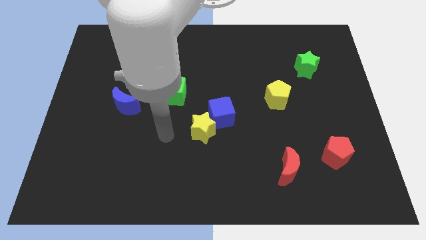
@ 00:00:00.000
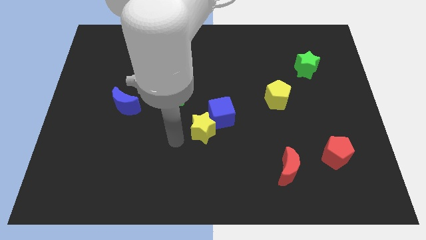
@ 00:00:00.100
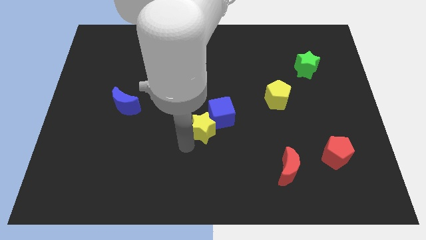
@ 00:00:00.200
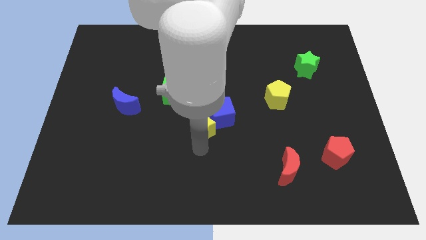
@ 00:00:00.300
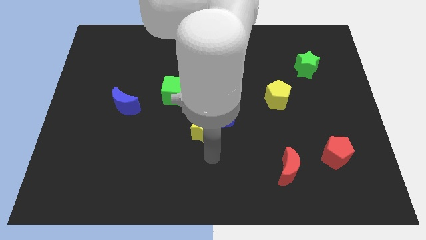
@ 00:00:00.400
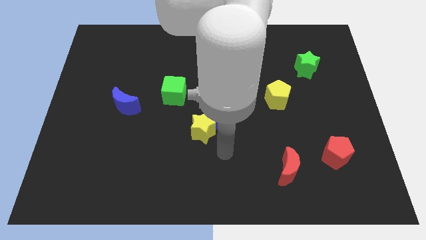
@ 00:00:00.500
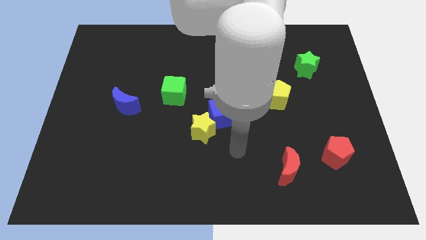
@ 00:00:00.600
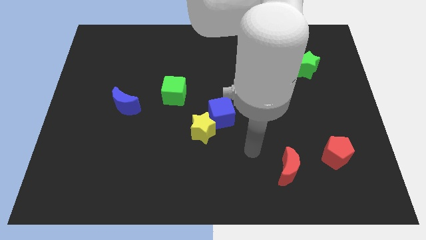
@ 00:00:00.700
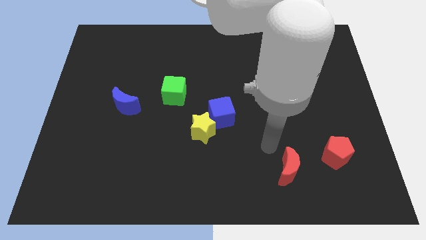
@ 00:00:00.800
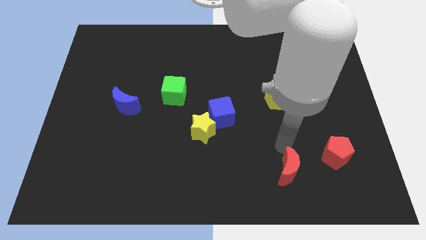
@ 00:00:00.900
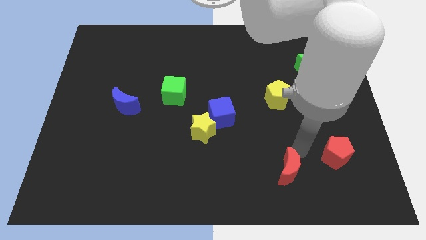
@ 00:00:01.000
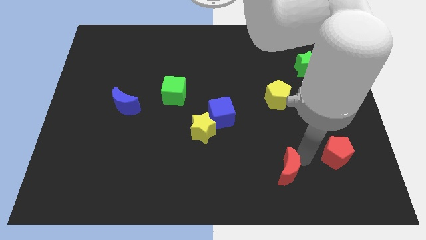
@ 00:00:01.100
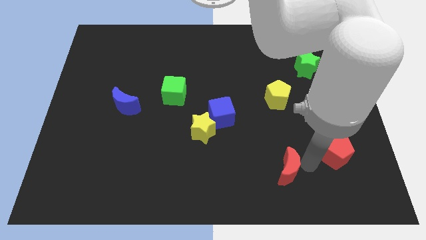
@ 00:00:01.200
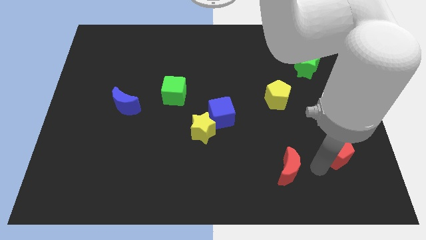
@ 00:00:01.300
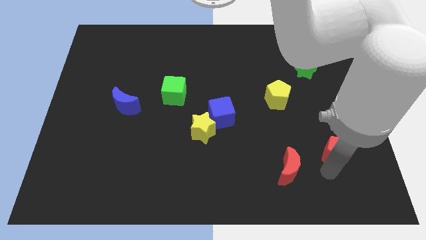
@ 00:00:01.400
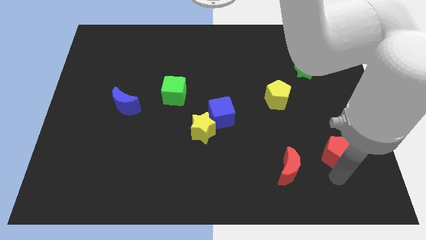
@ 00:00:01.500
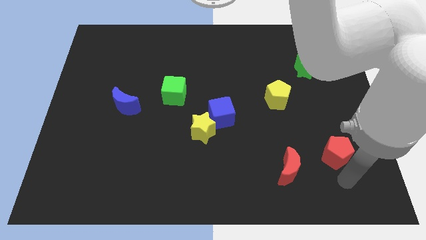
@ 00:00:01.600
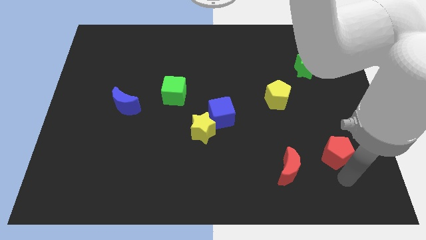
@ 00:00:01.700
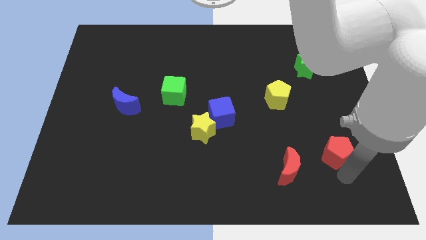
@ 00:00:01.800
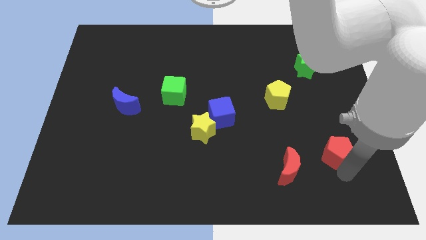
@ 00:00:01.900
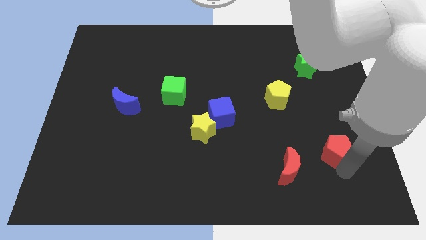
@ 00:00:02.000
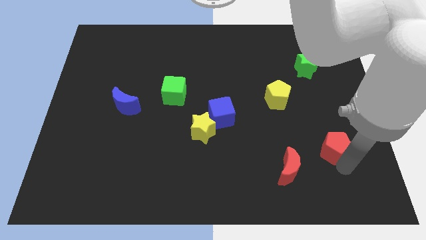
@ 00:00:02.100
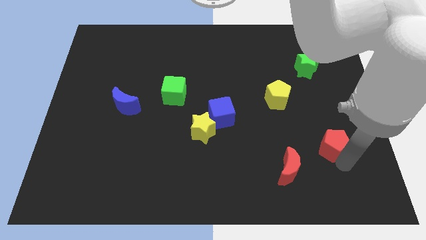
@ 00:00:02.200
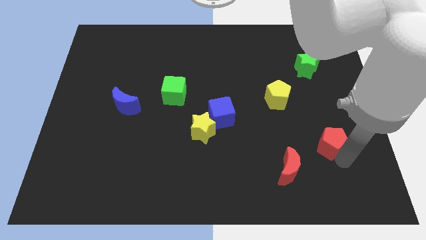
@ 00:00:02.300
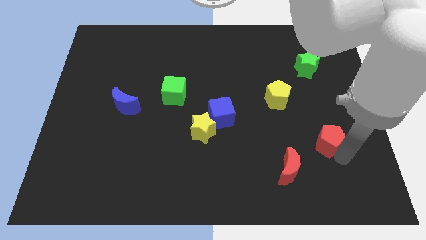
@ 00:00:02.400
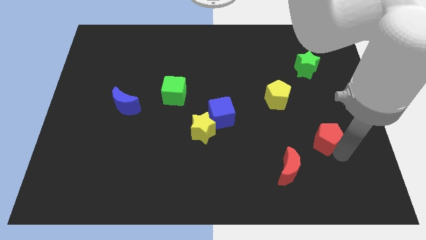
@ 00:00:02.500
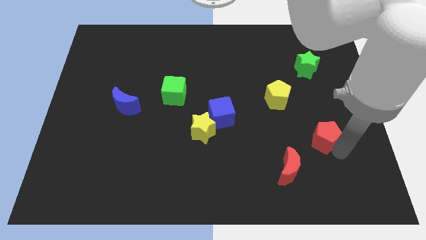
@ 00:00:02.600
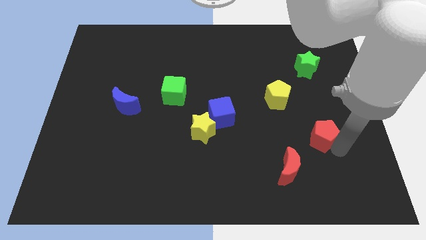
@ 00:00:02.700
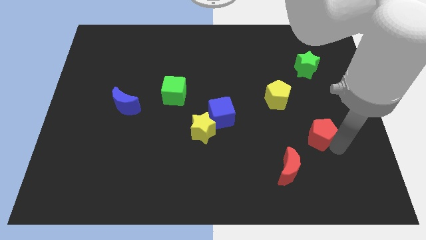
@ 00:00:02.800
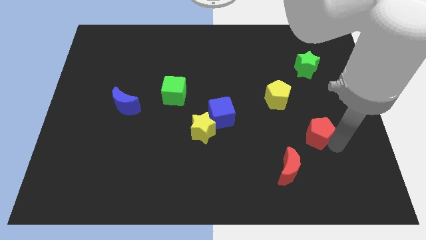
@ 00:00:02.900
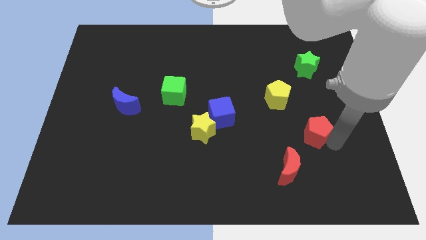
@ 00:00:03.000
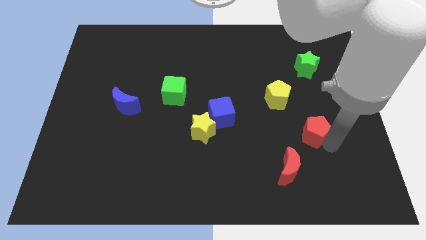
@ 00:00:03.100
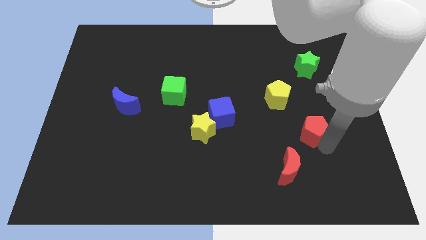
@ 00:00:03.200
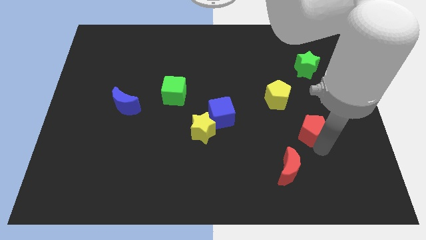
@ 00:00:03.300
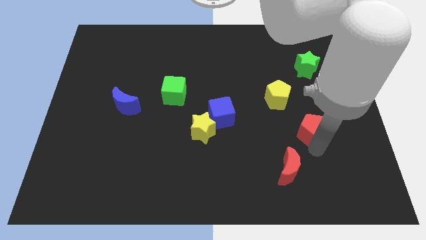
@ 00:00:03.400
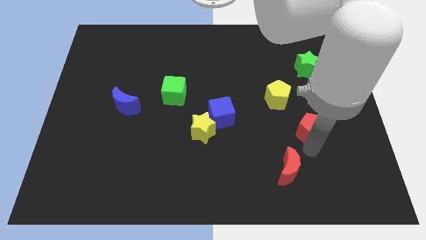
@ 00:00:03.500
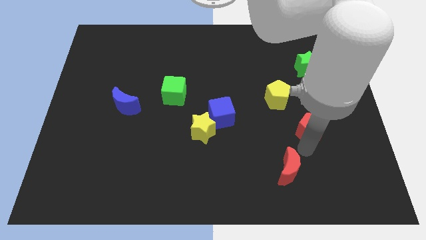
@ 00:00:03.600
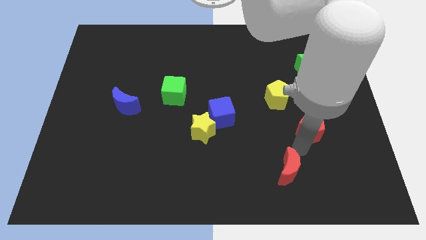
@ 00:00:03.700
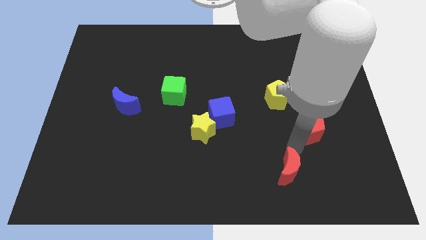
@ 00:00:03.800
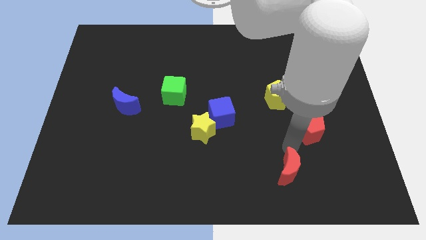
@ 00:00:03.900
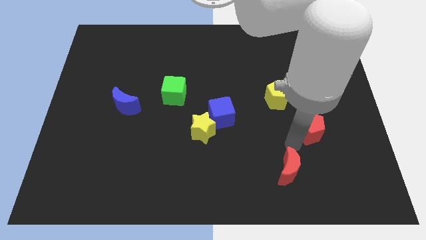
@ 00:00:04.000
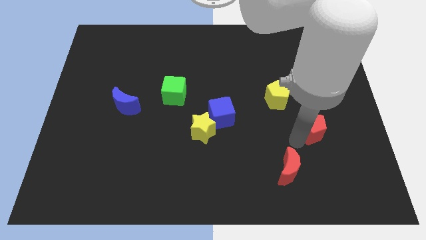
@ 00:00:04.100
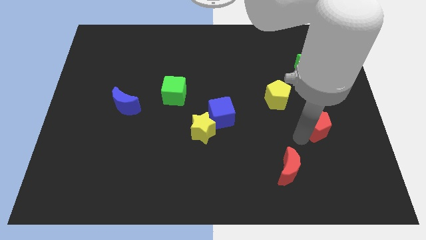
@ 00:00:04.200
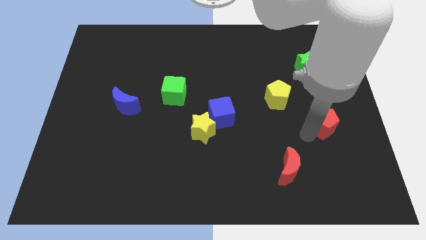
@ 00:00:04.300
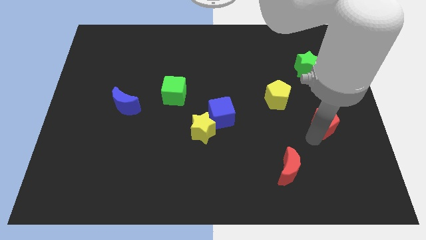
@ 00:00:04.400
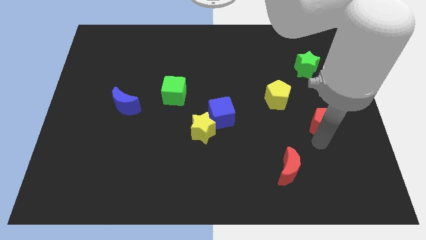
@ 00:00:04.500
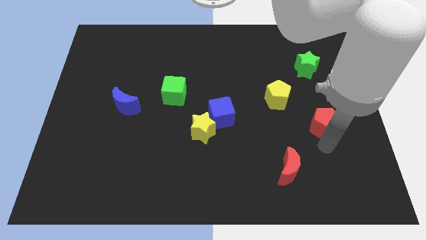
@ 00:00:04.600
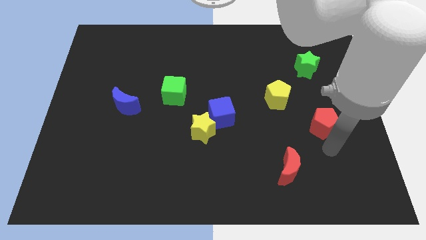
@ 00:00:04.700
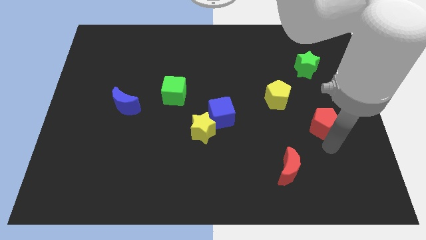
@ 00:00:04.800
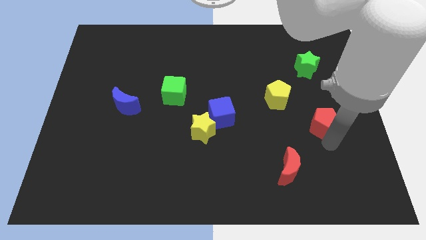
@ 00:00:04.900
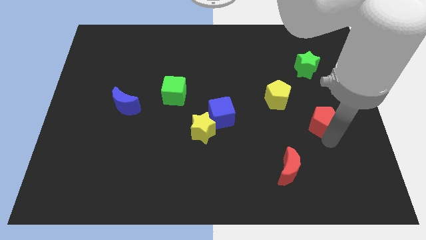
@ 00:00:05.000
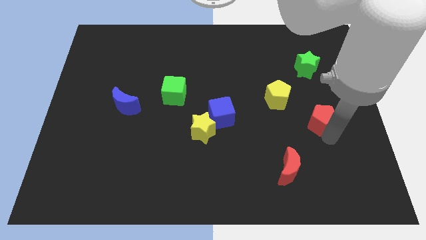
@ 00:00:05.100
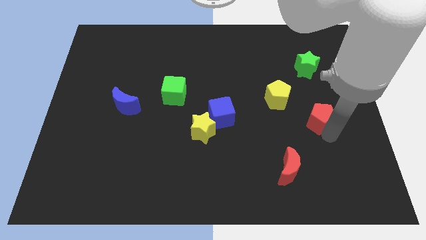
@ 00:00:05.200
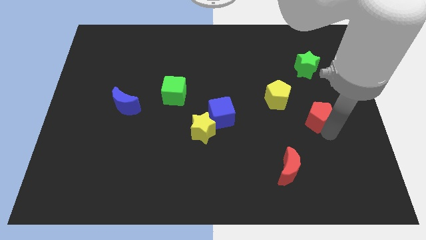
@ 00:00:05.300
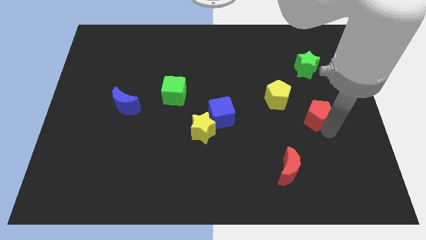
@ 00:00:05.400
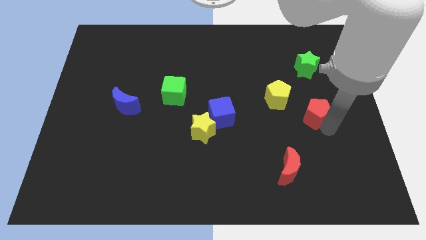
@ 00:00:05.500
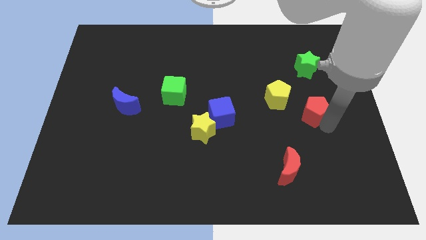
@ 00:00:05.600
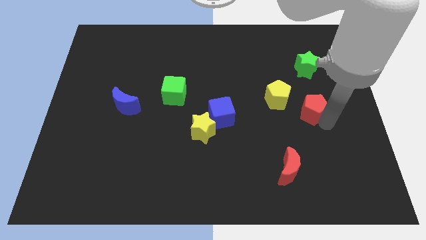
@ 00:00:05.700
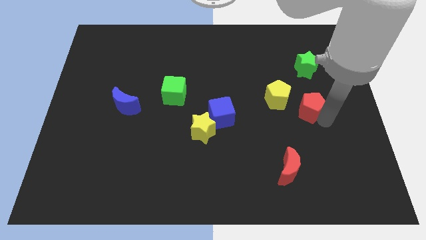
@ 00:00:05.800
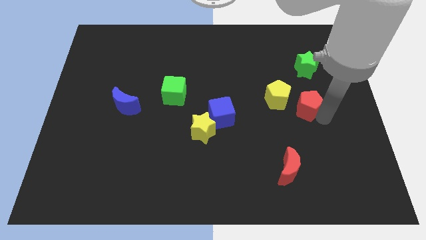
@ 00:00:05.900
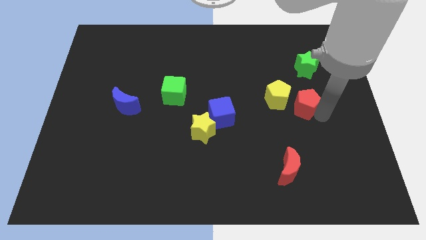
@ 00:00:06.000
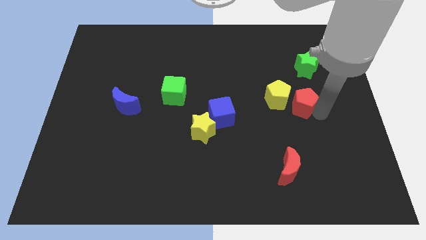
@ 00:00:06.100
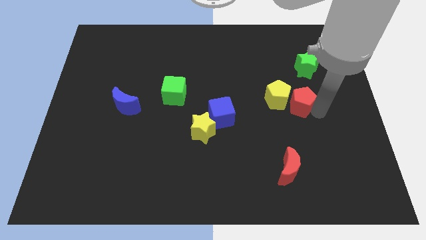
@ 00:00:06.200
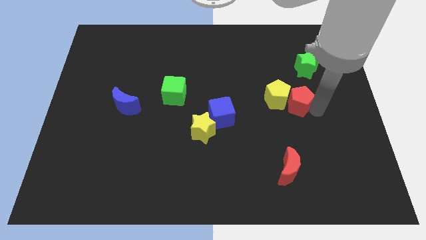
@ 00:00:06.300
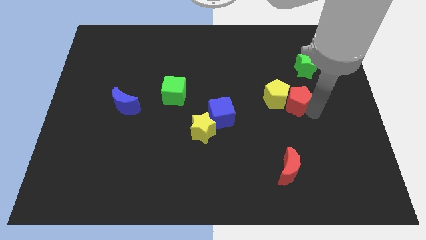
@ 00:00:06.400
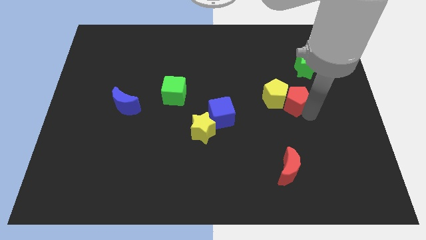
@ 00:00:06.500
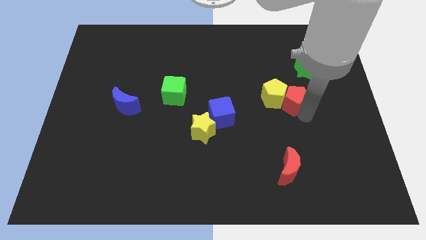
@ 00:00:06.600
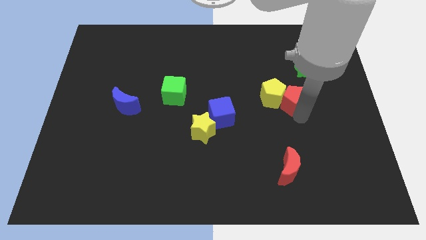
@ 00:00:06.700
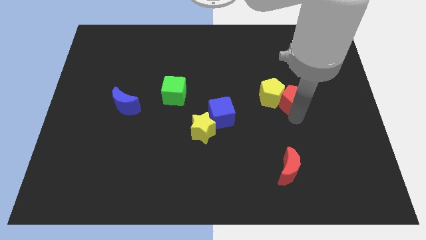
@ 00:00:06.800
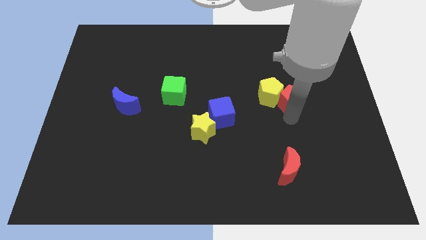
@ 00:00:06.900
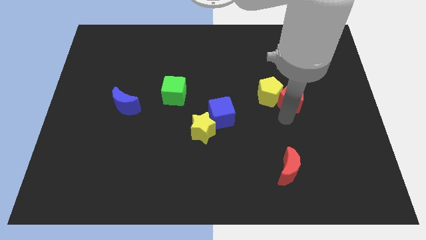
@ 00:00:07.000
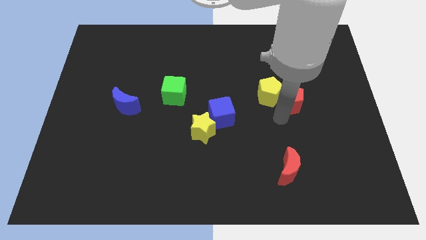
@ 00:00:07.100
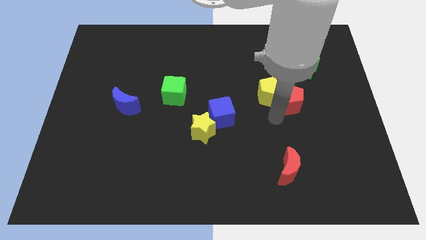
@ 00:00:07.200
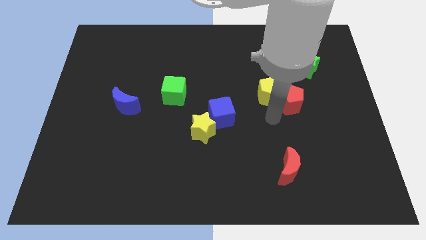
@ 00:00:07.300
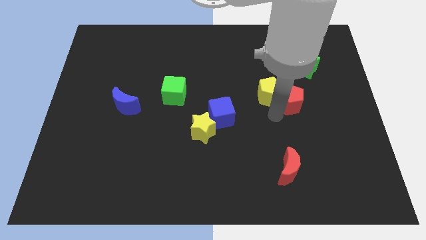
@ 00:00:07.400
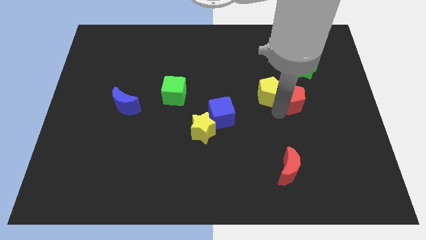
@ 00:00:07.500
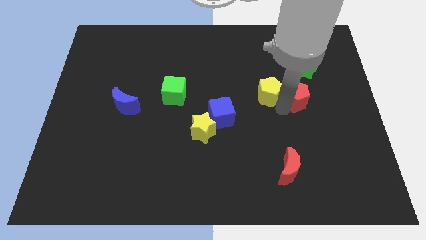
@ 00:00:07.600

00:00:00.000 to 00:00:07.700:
put the red pentagon diagonally down and to the left of the green star
